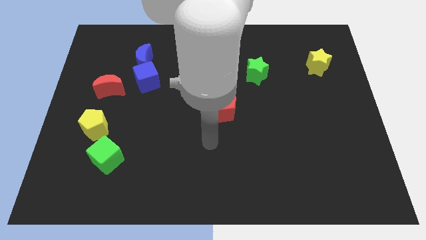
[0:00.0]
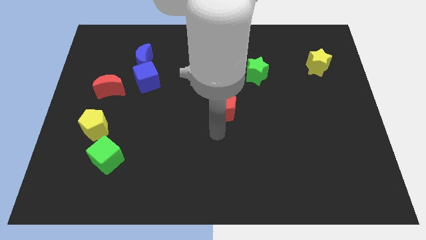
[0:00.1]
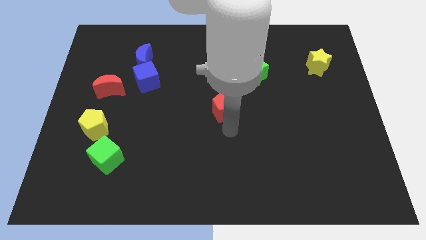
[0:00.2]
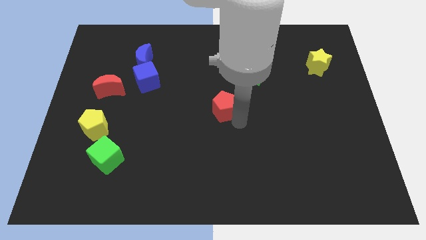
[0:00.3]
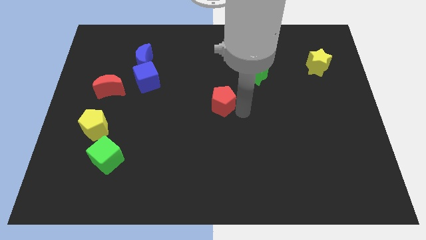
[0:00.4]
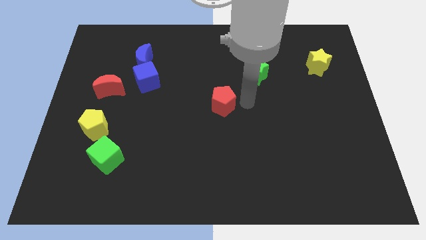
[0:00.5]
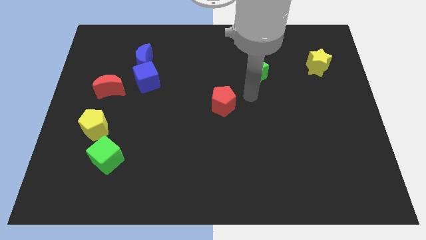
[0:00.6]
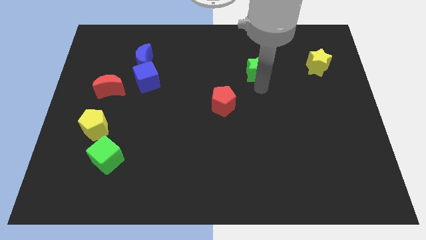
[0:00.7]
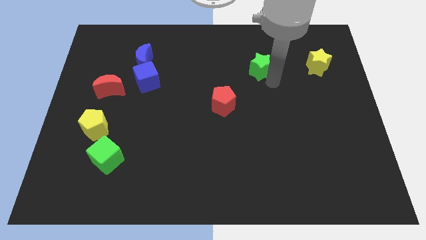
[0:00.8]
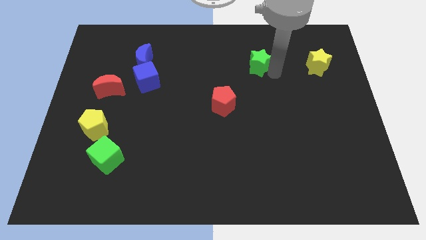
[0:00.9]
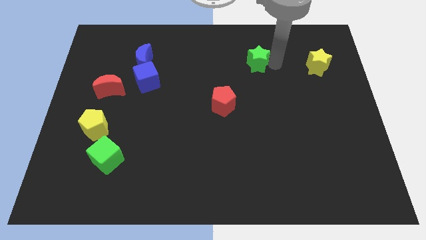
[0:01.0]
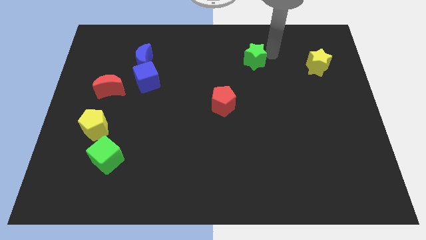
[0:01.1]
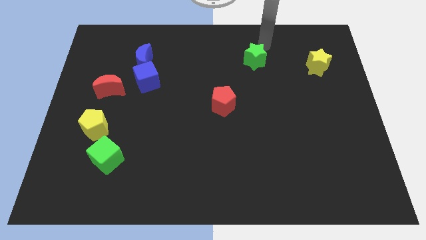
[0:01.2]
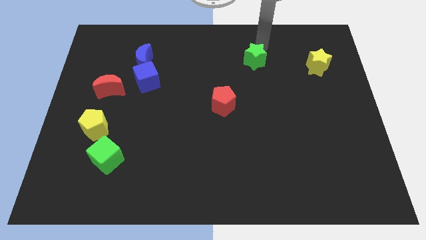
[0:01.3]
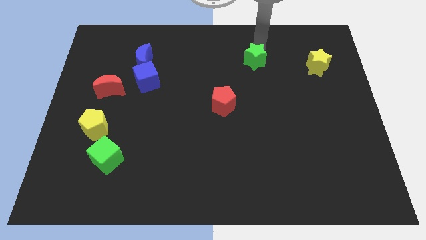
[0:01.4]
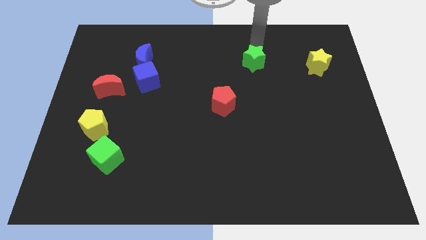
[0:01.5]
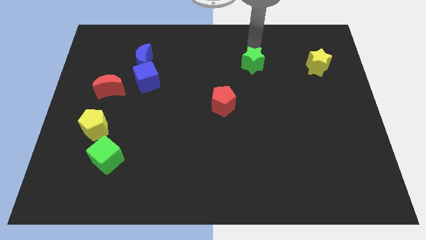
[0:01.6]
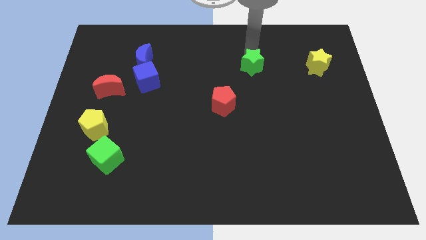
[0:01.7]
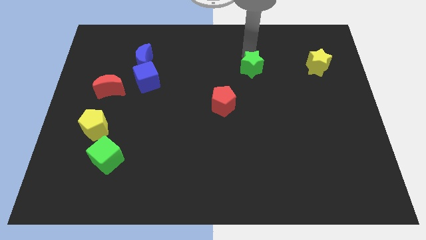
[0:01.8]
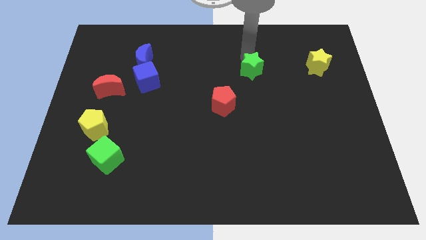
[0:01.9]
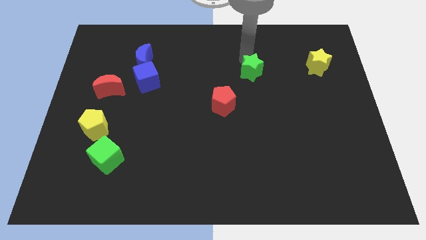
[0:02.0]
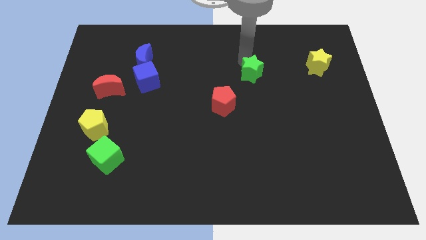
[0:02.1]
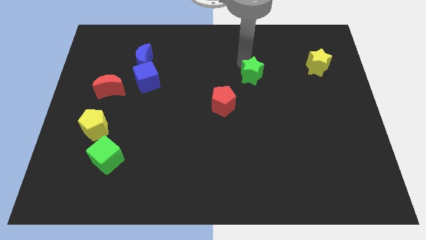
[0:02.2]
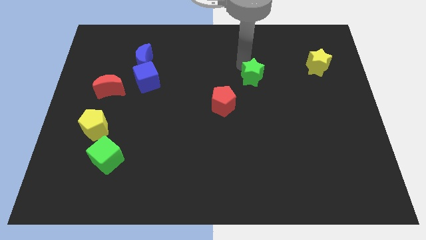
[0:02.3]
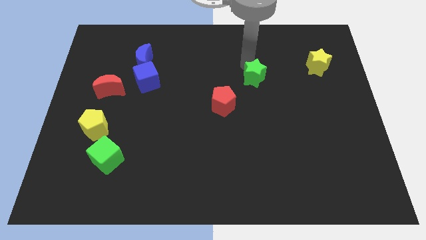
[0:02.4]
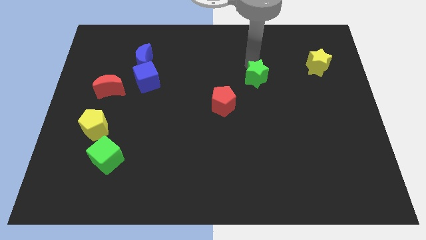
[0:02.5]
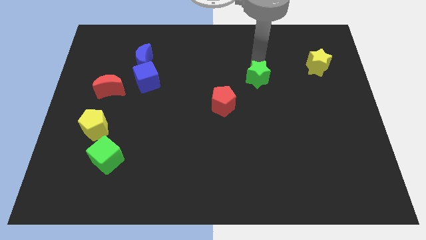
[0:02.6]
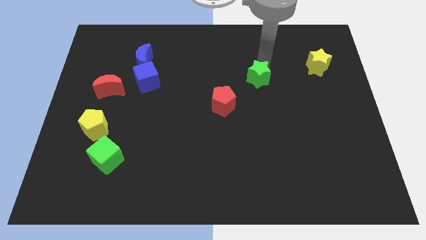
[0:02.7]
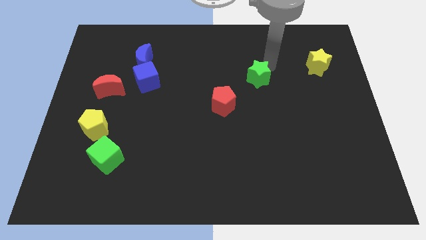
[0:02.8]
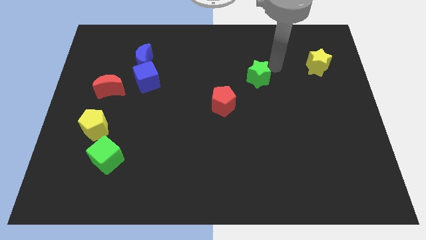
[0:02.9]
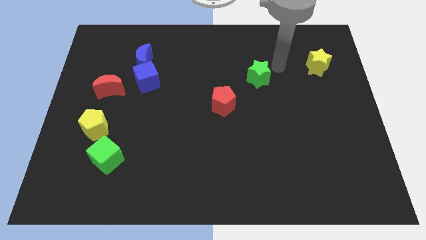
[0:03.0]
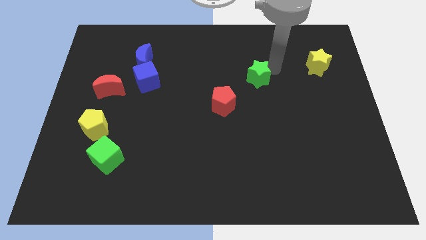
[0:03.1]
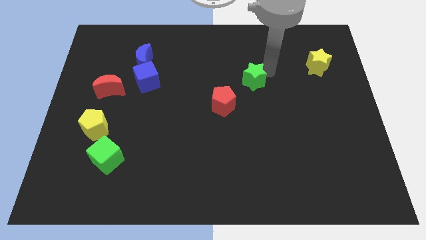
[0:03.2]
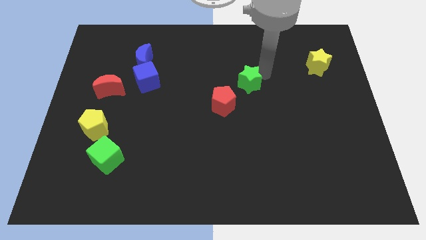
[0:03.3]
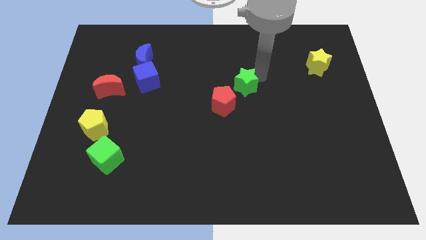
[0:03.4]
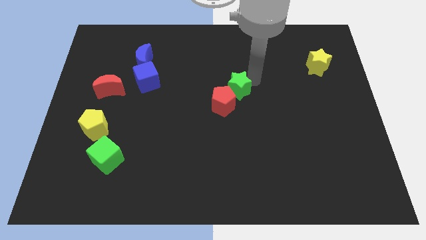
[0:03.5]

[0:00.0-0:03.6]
move the green star a bit diagonally down and left

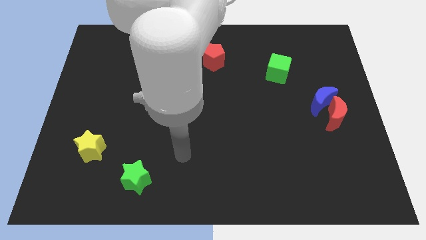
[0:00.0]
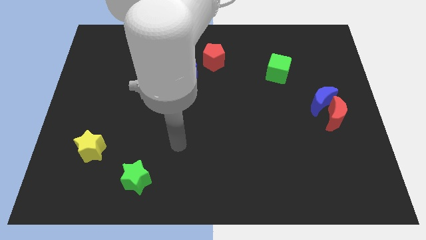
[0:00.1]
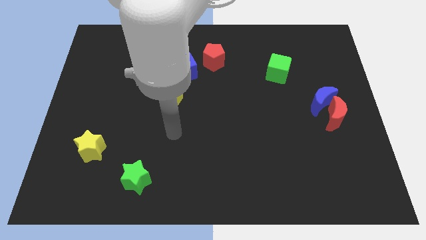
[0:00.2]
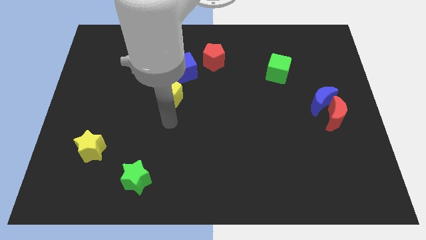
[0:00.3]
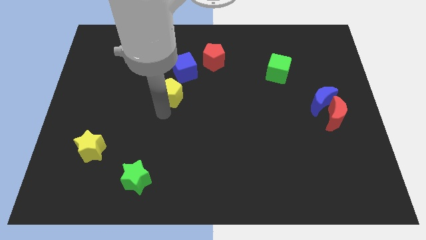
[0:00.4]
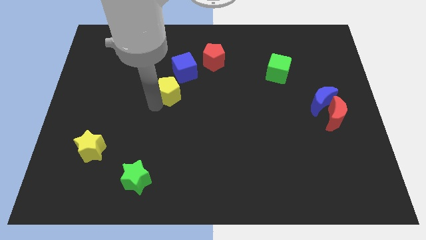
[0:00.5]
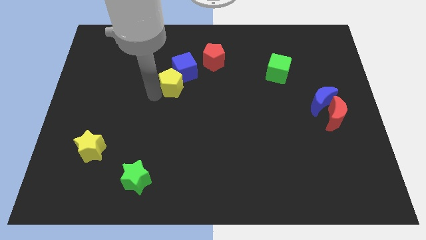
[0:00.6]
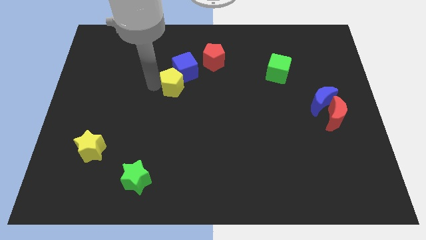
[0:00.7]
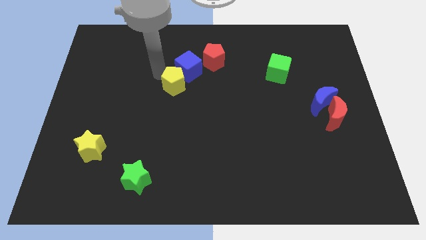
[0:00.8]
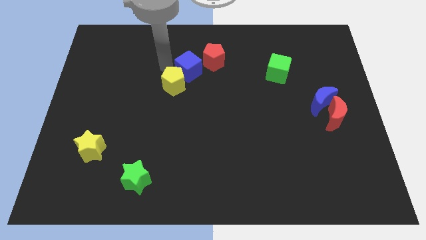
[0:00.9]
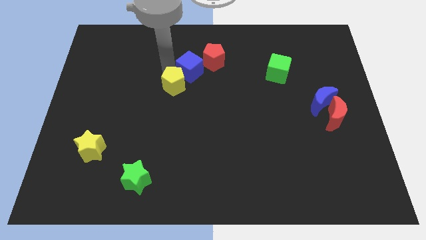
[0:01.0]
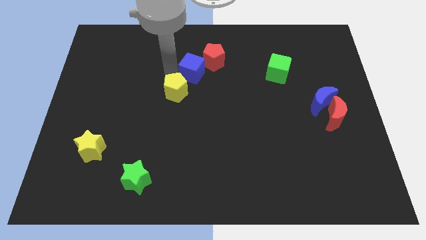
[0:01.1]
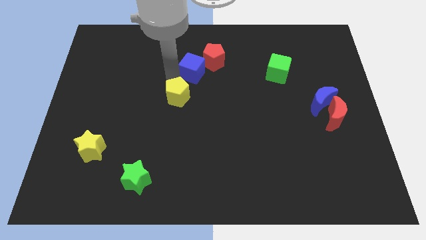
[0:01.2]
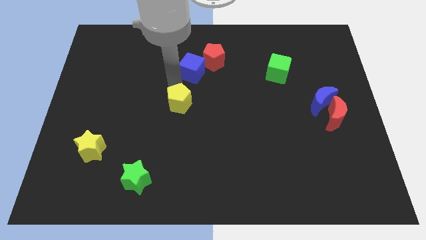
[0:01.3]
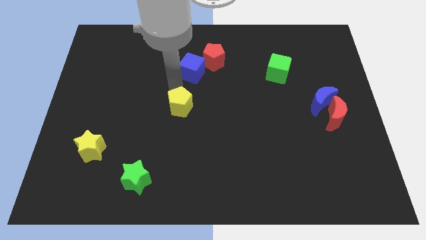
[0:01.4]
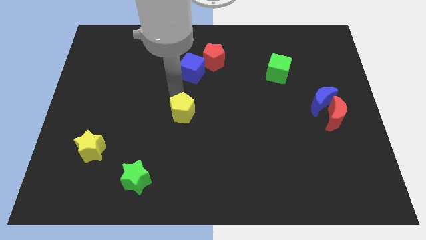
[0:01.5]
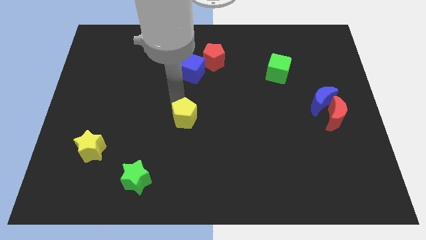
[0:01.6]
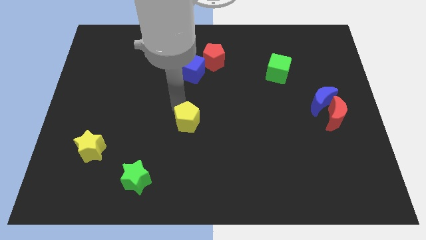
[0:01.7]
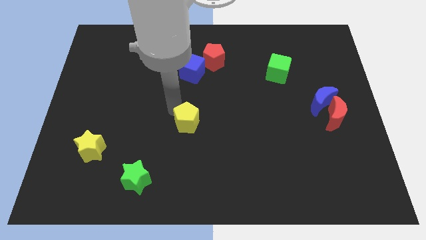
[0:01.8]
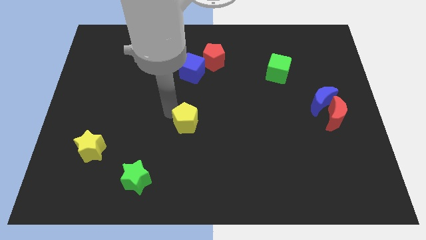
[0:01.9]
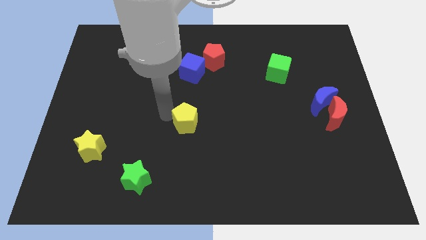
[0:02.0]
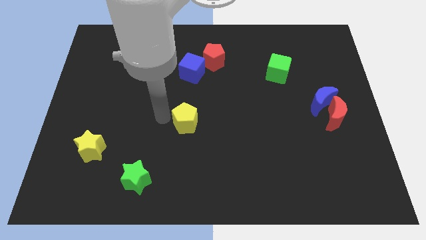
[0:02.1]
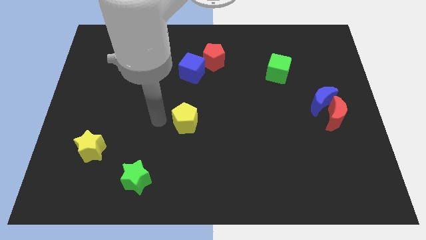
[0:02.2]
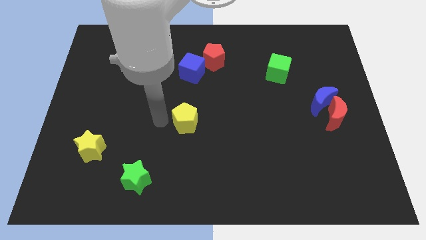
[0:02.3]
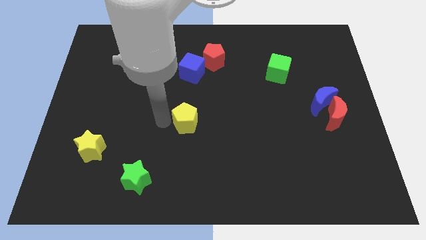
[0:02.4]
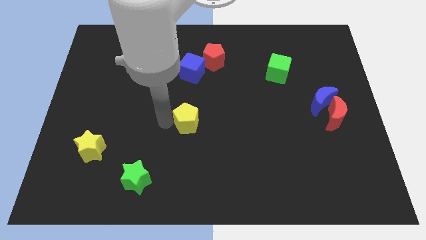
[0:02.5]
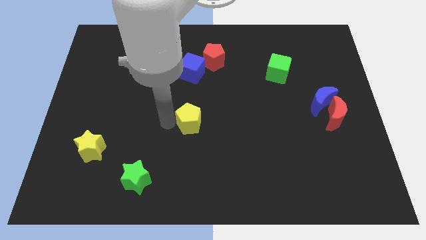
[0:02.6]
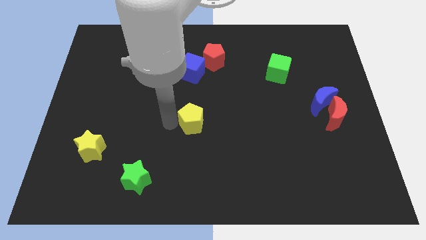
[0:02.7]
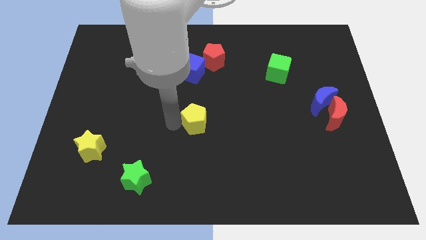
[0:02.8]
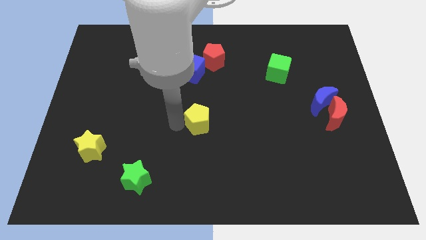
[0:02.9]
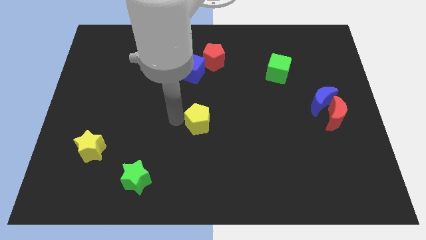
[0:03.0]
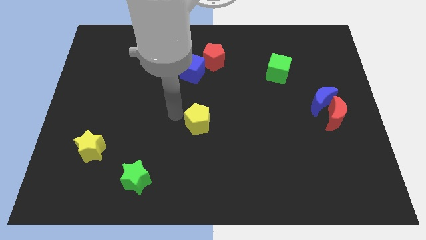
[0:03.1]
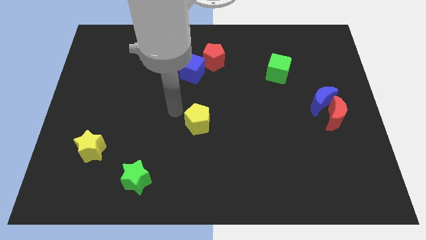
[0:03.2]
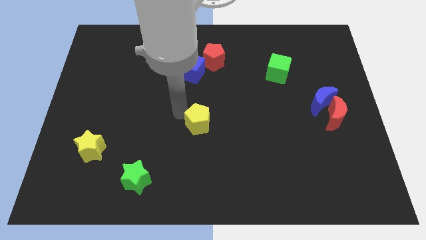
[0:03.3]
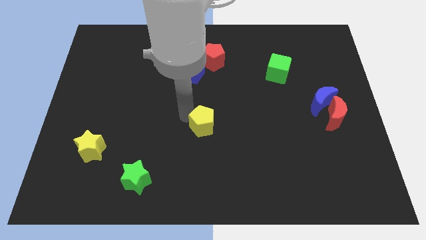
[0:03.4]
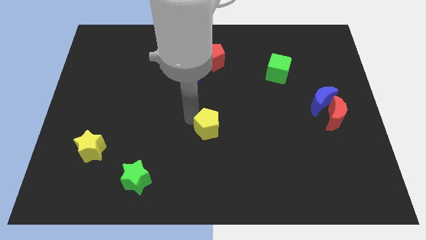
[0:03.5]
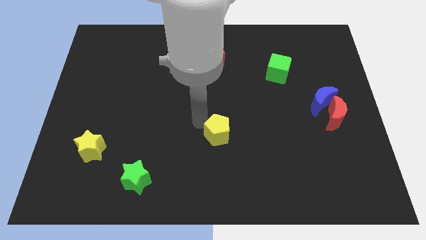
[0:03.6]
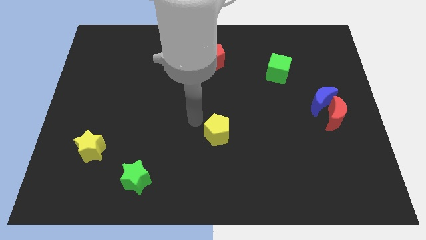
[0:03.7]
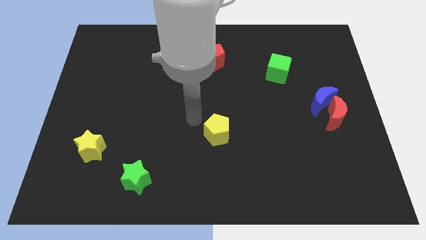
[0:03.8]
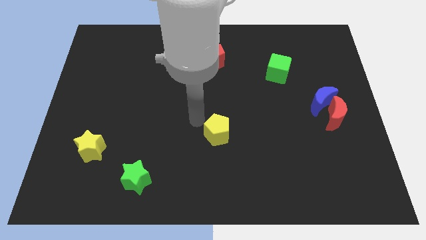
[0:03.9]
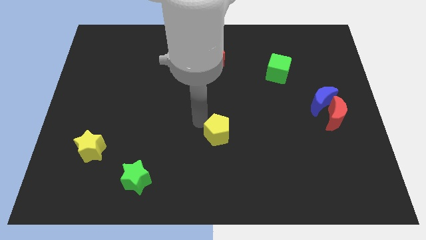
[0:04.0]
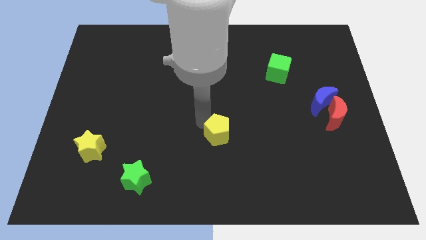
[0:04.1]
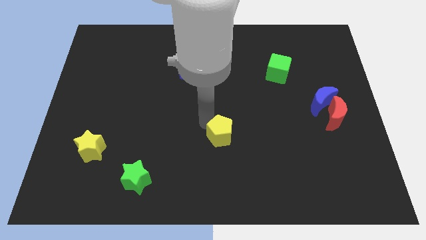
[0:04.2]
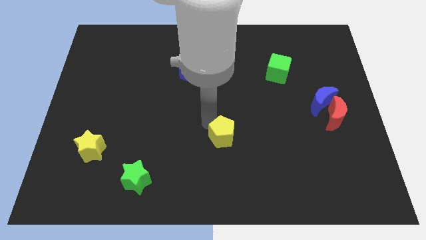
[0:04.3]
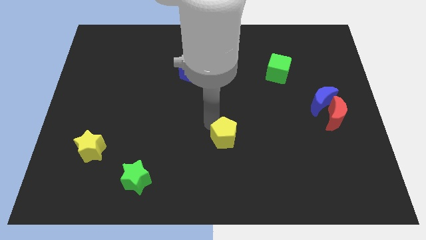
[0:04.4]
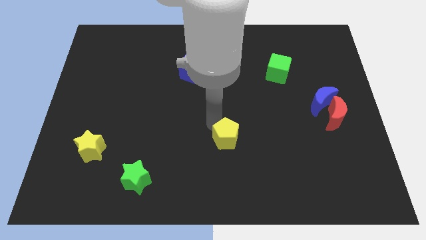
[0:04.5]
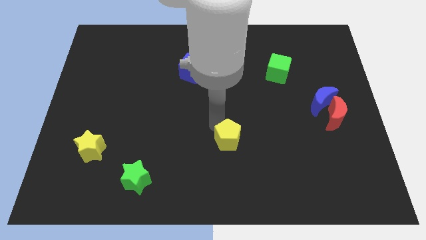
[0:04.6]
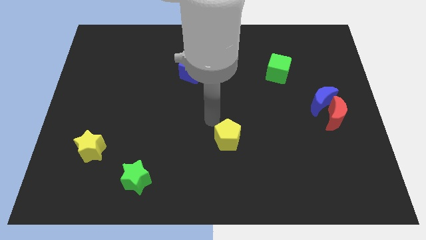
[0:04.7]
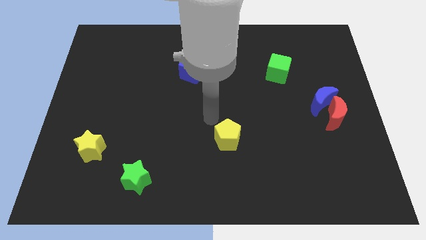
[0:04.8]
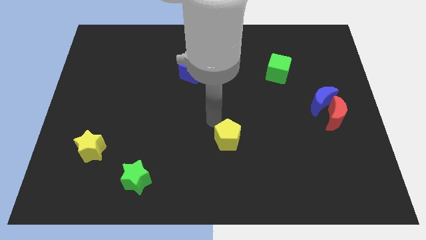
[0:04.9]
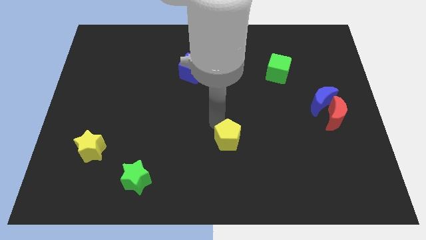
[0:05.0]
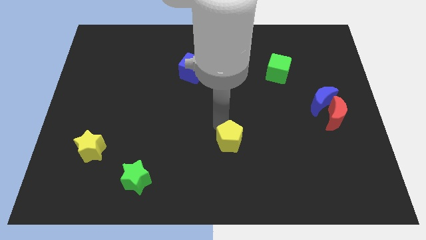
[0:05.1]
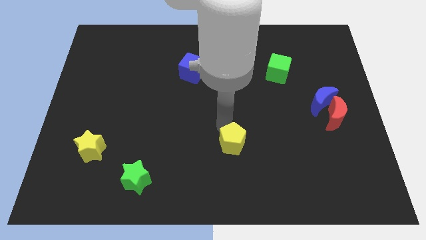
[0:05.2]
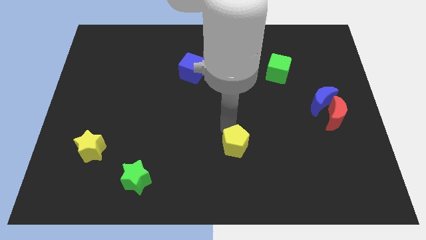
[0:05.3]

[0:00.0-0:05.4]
push the yellow pentagon downwards and then to the right
